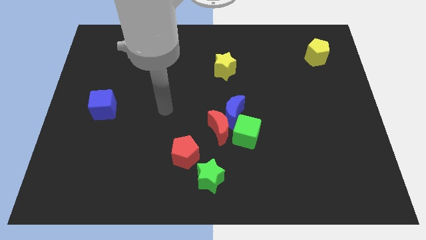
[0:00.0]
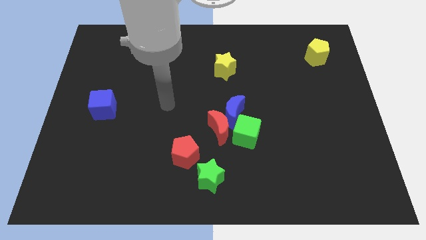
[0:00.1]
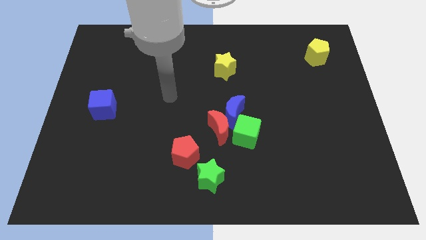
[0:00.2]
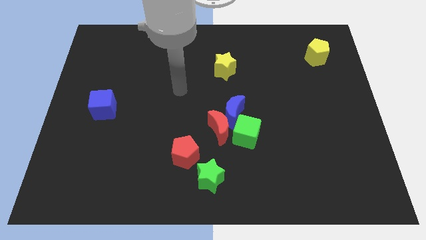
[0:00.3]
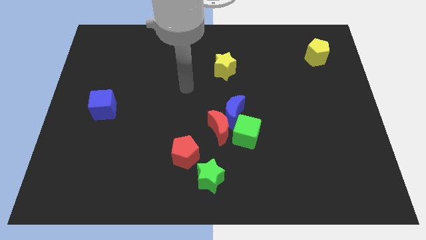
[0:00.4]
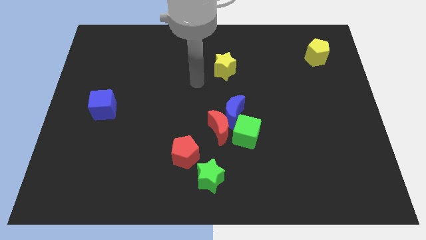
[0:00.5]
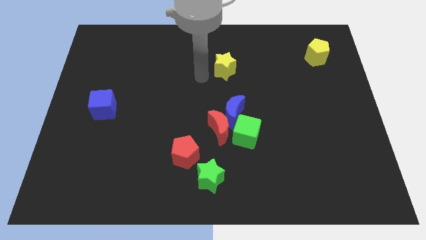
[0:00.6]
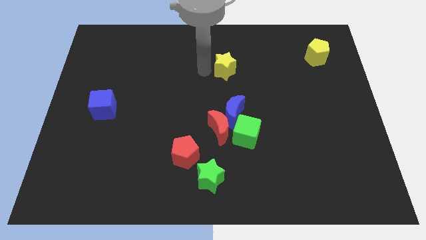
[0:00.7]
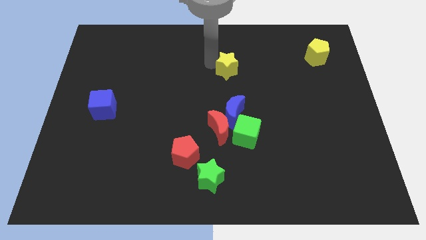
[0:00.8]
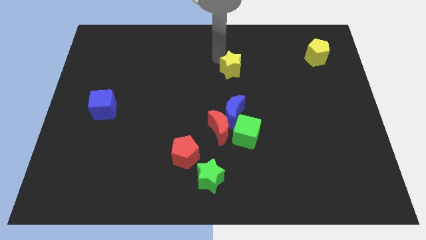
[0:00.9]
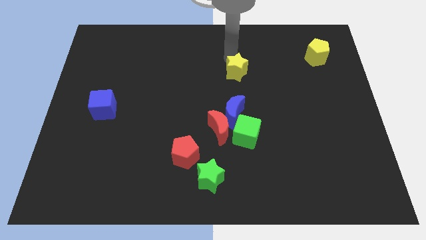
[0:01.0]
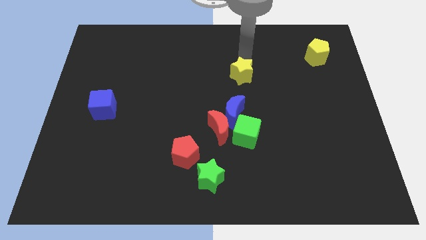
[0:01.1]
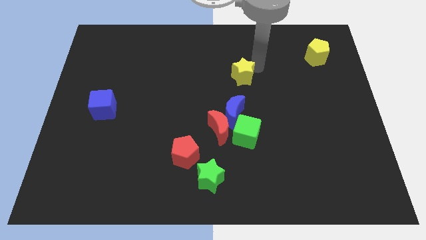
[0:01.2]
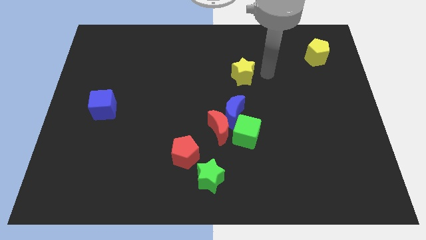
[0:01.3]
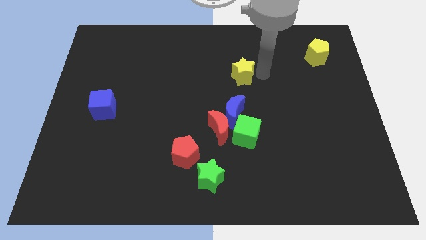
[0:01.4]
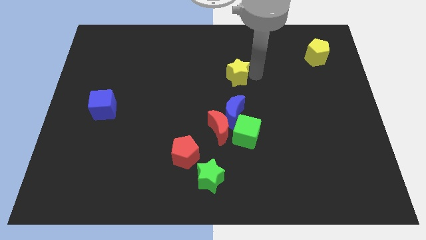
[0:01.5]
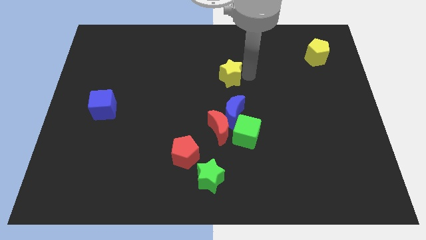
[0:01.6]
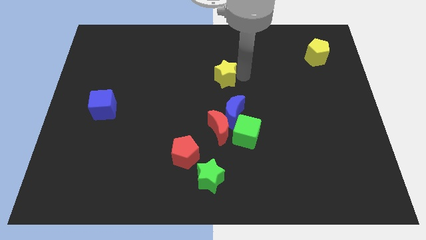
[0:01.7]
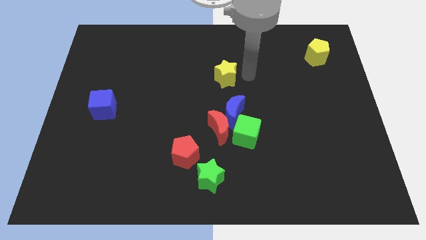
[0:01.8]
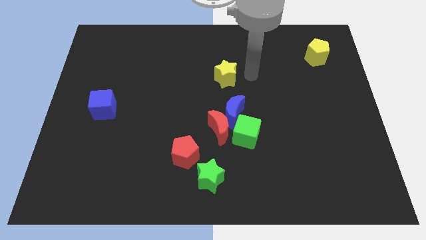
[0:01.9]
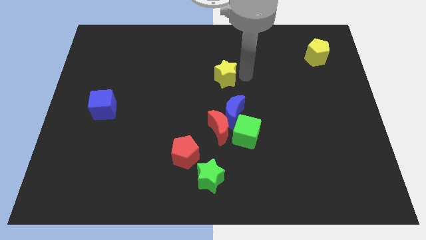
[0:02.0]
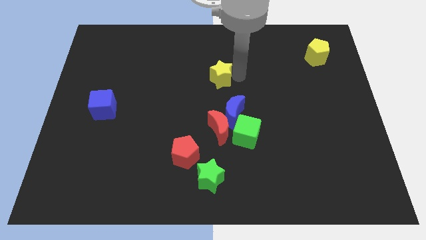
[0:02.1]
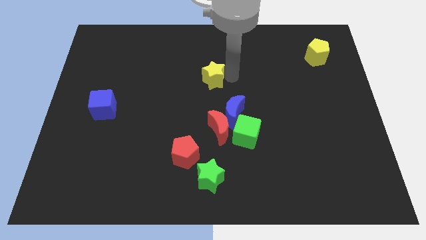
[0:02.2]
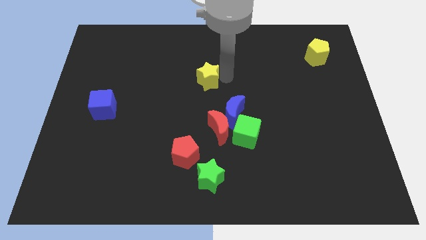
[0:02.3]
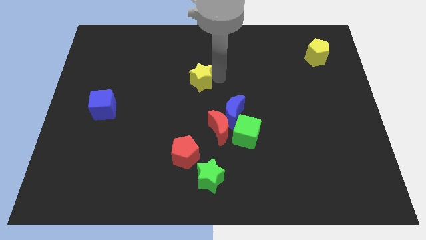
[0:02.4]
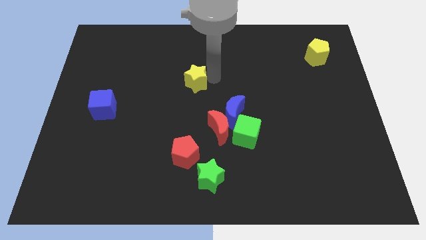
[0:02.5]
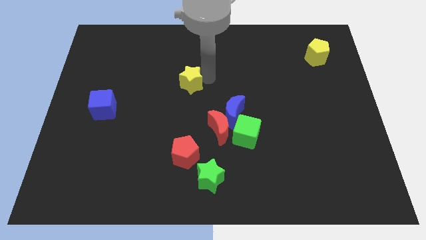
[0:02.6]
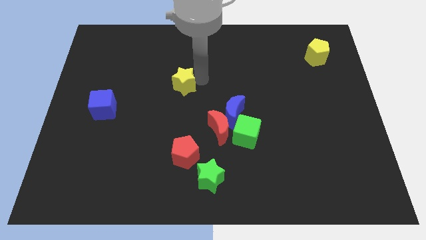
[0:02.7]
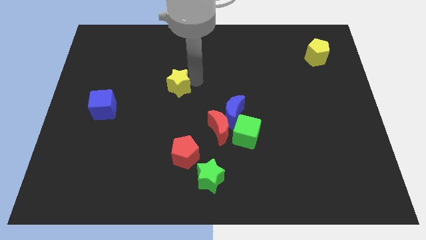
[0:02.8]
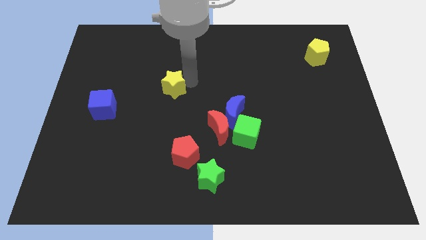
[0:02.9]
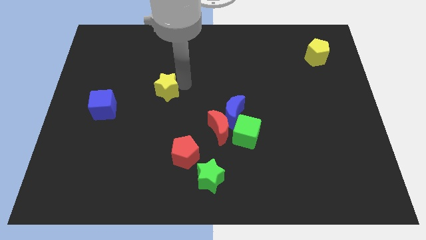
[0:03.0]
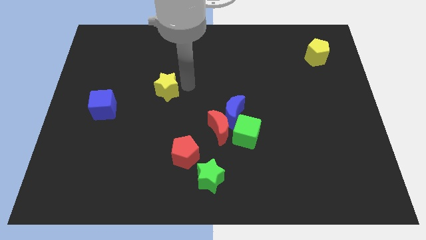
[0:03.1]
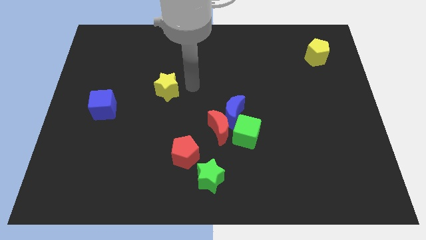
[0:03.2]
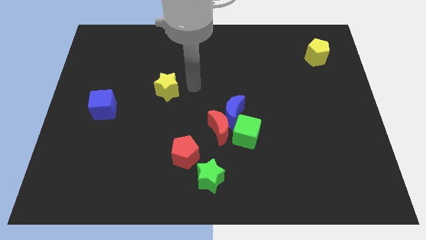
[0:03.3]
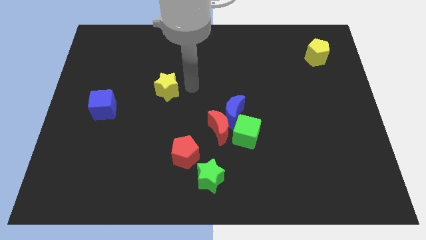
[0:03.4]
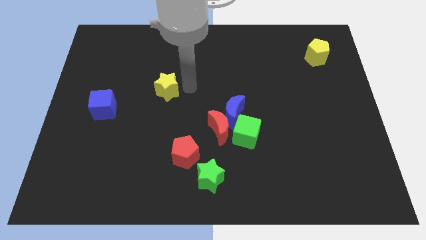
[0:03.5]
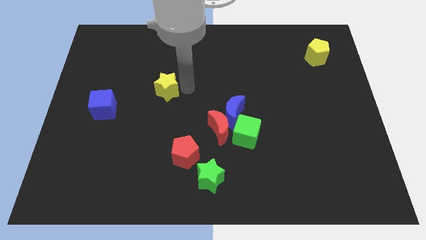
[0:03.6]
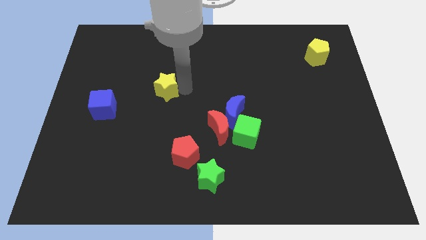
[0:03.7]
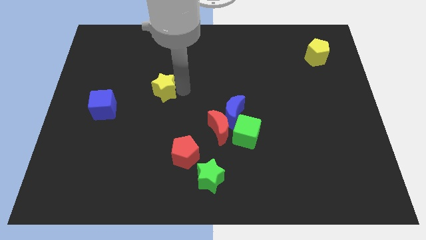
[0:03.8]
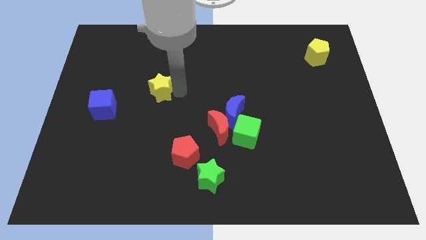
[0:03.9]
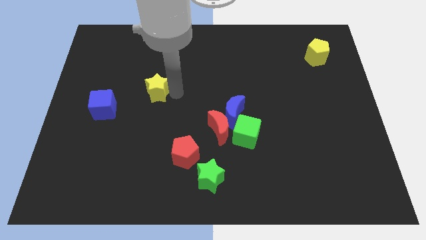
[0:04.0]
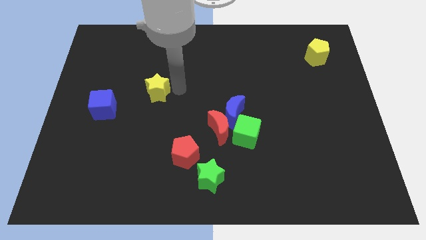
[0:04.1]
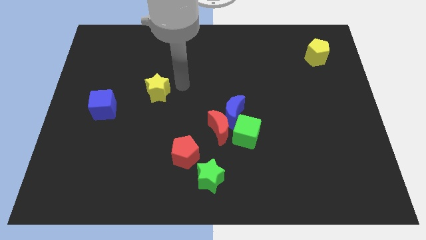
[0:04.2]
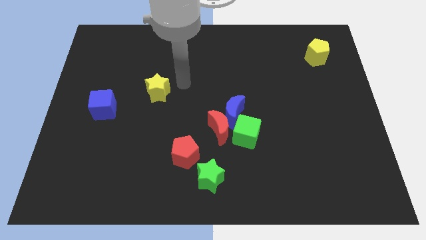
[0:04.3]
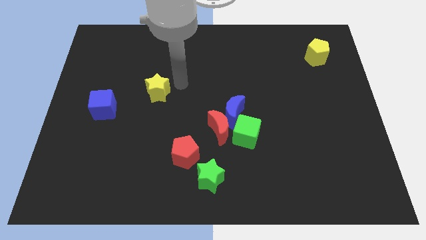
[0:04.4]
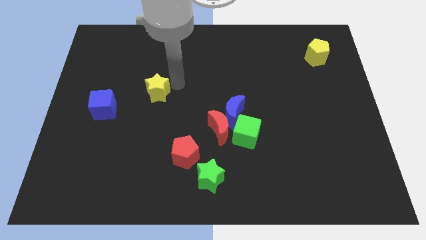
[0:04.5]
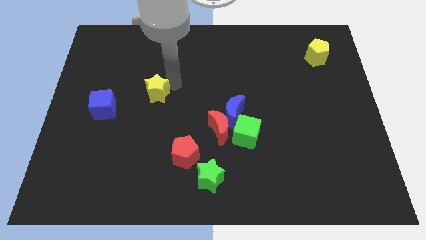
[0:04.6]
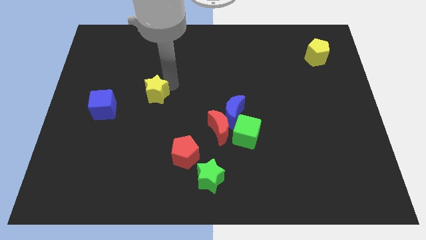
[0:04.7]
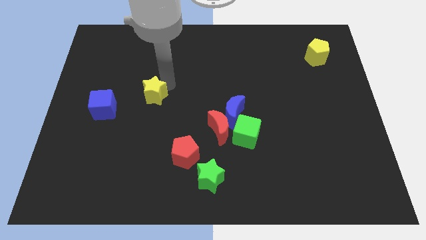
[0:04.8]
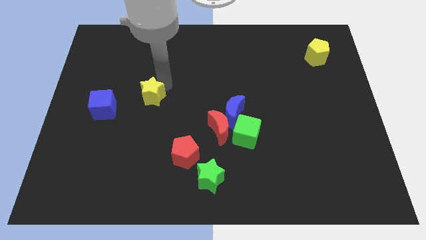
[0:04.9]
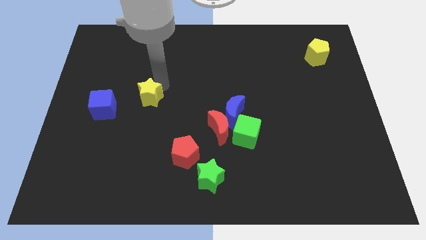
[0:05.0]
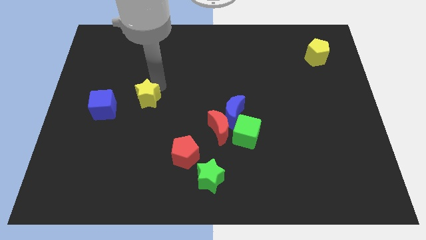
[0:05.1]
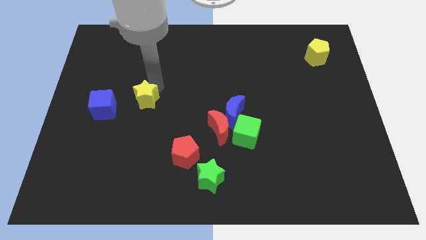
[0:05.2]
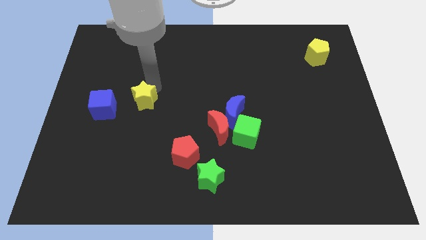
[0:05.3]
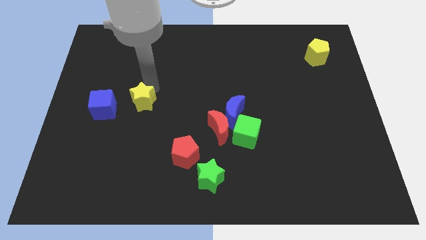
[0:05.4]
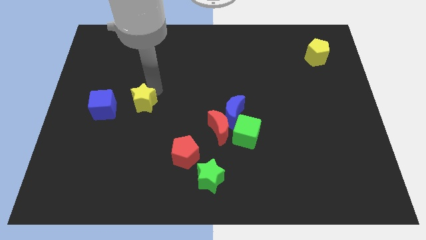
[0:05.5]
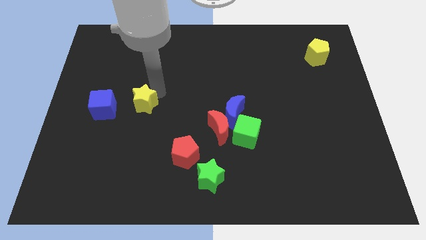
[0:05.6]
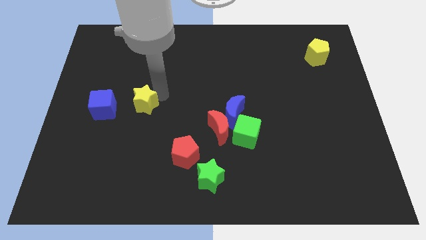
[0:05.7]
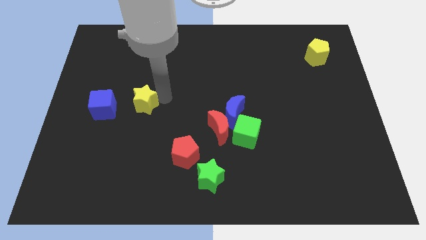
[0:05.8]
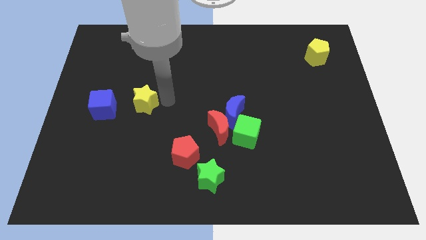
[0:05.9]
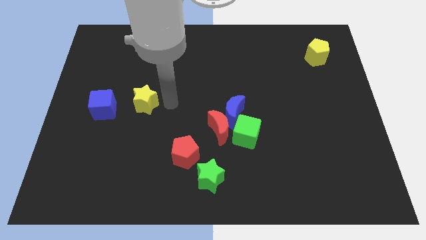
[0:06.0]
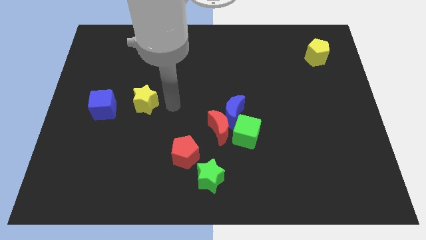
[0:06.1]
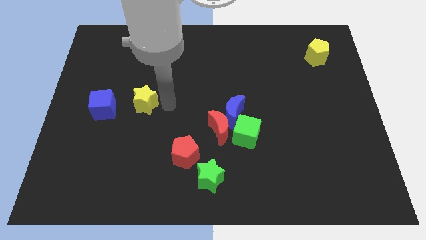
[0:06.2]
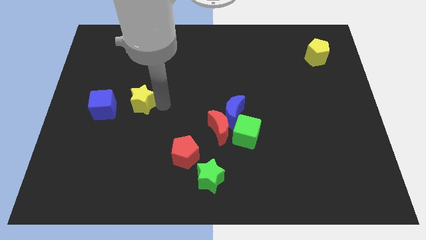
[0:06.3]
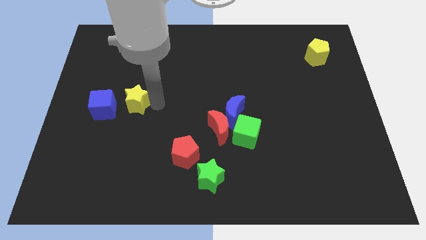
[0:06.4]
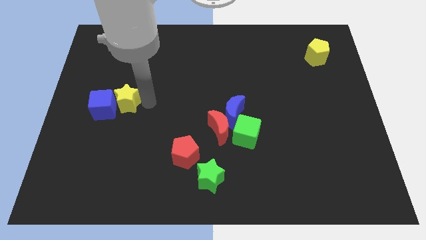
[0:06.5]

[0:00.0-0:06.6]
put the yellow star next to the blue cube

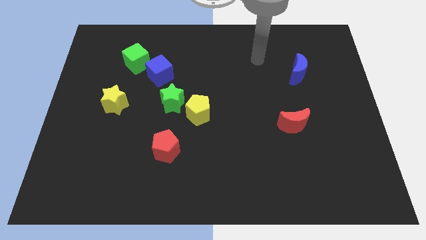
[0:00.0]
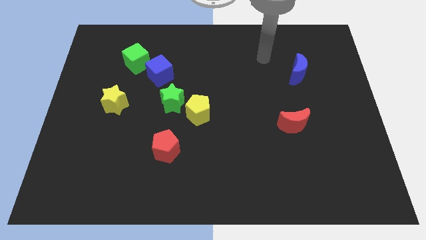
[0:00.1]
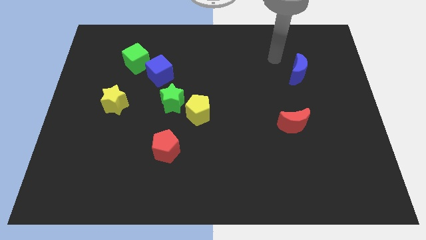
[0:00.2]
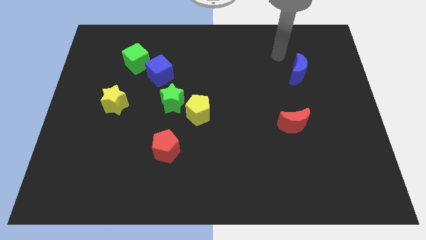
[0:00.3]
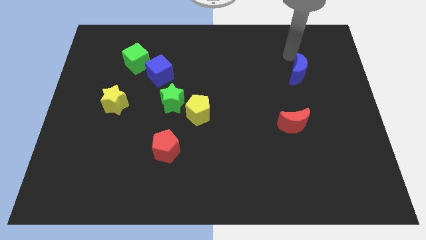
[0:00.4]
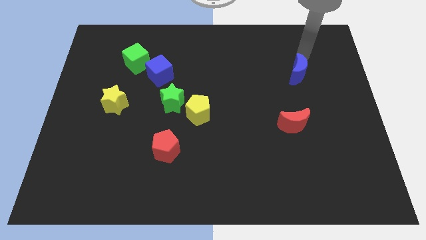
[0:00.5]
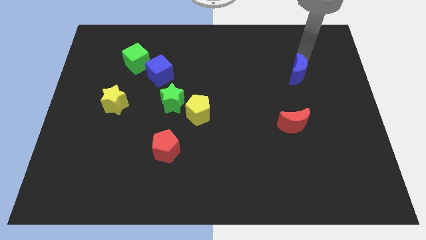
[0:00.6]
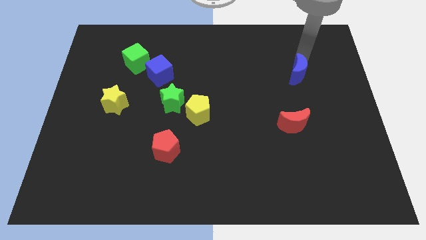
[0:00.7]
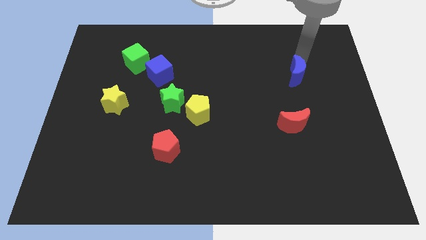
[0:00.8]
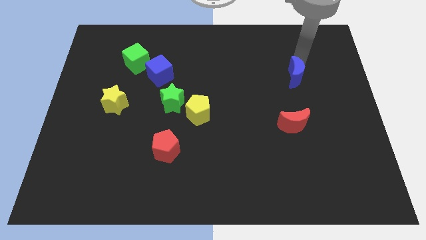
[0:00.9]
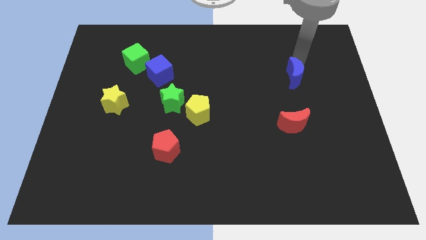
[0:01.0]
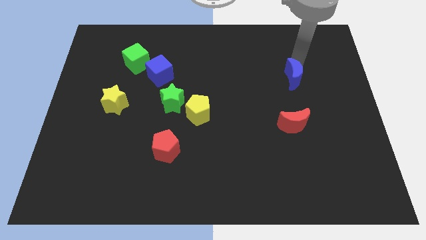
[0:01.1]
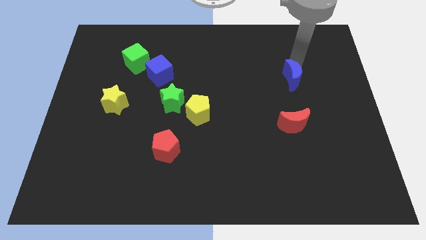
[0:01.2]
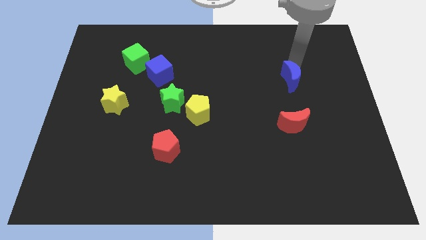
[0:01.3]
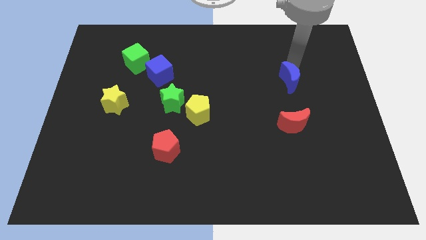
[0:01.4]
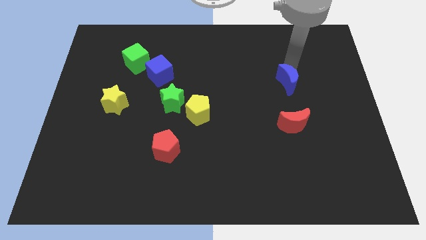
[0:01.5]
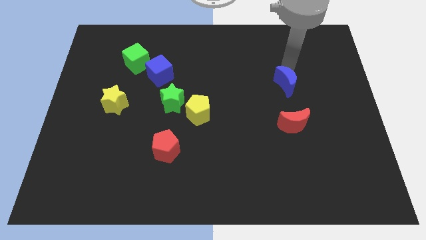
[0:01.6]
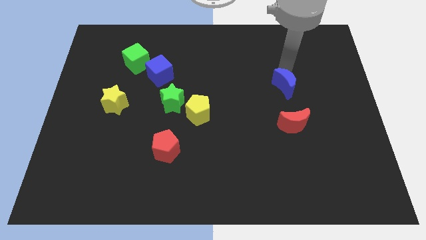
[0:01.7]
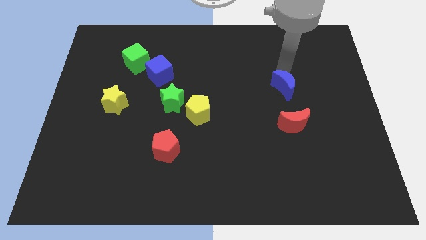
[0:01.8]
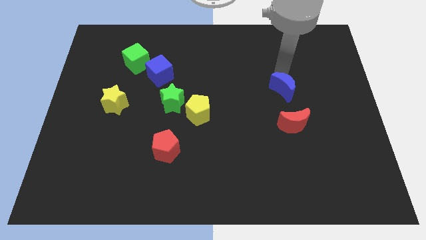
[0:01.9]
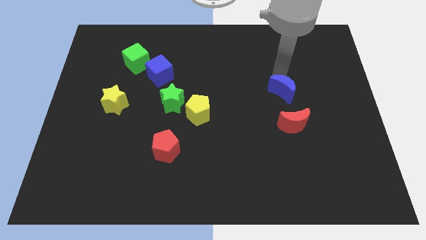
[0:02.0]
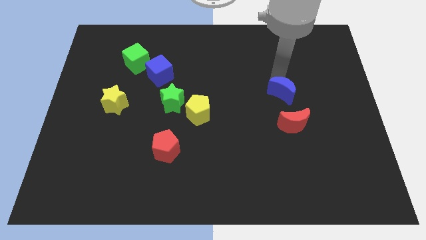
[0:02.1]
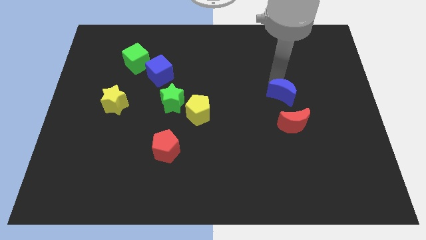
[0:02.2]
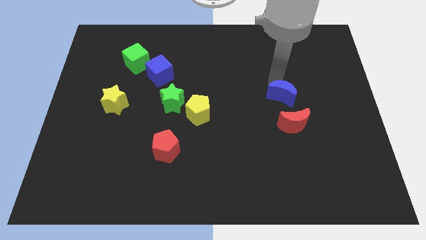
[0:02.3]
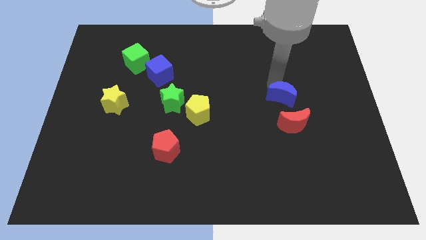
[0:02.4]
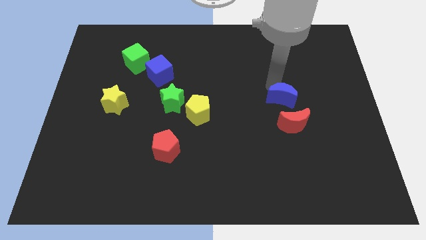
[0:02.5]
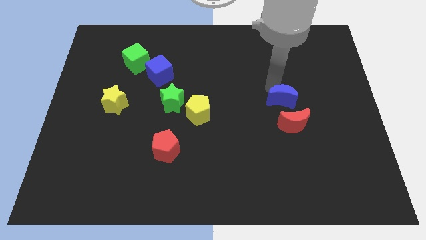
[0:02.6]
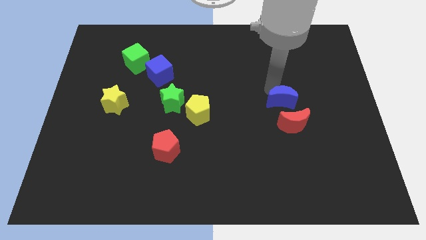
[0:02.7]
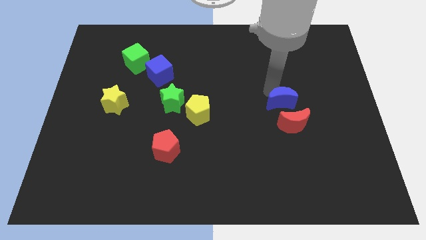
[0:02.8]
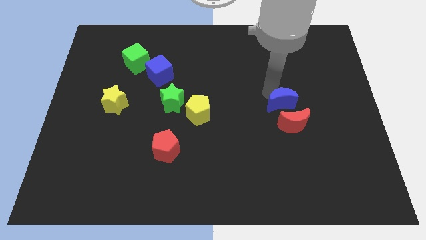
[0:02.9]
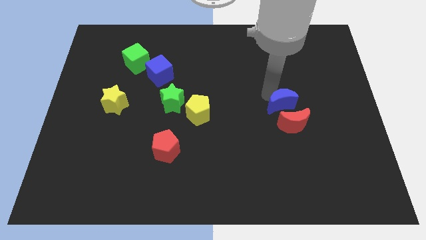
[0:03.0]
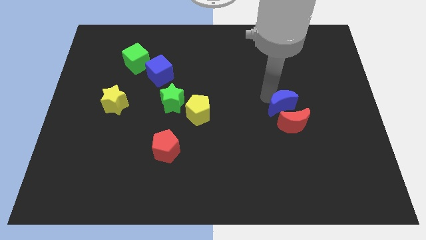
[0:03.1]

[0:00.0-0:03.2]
move the blue moon to the red moon
